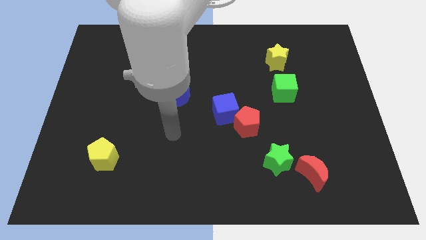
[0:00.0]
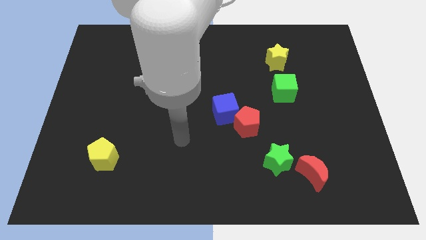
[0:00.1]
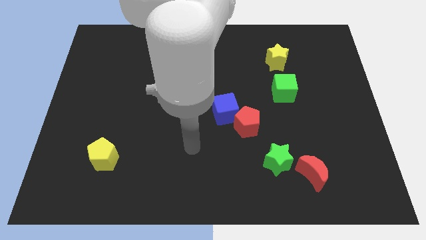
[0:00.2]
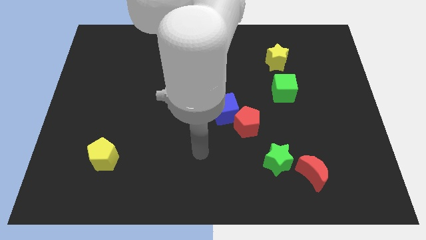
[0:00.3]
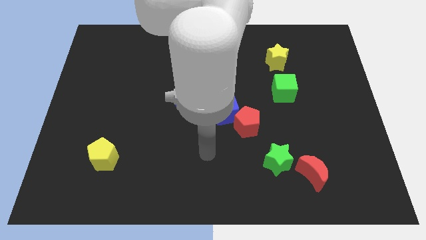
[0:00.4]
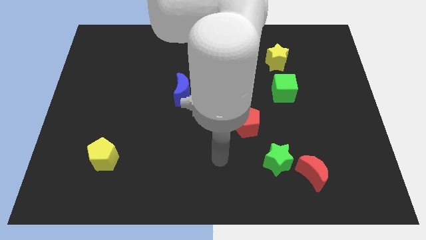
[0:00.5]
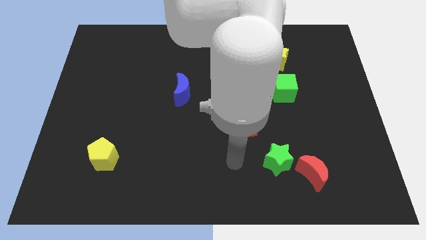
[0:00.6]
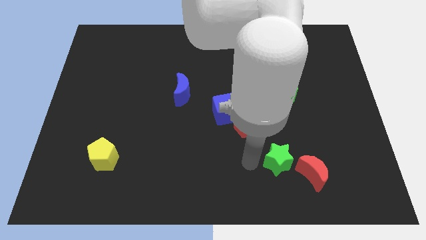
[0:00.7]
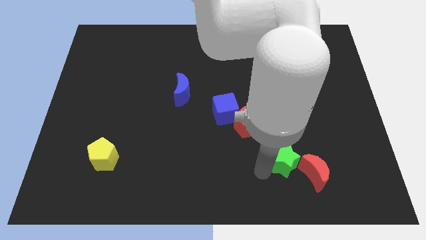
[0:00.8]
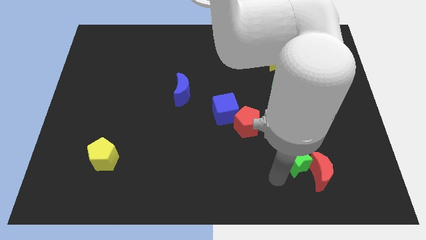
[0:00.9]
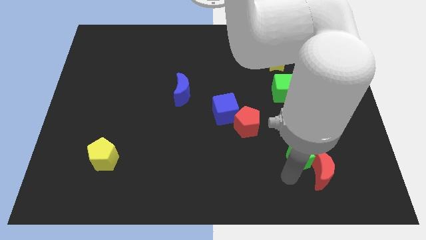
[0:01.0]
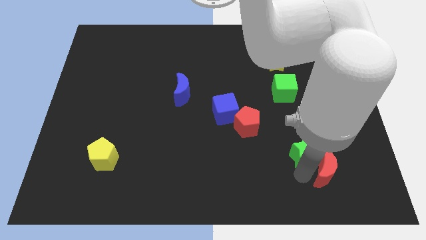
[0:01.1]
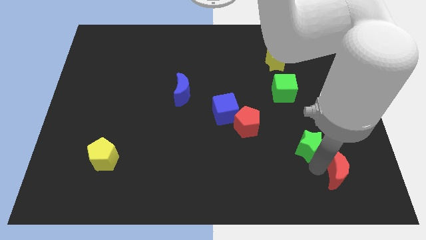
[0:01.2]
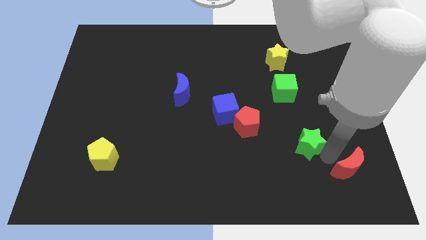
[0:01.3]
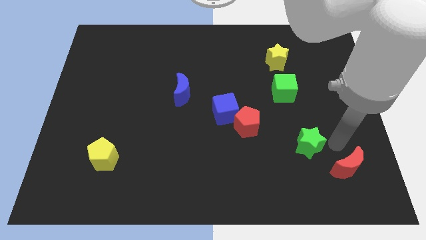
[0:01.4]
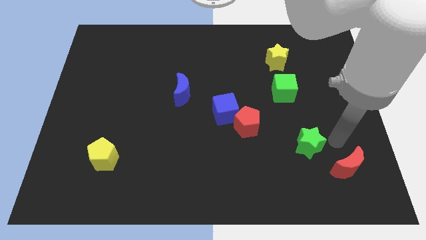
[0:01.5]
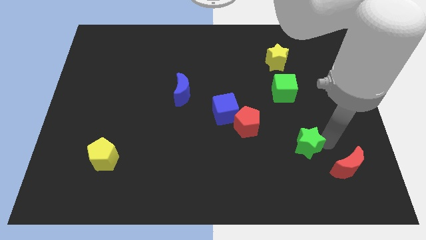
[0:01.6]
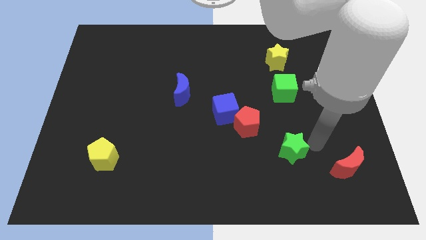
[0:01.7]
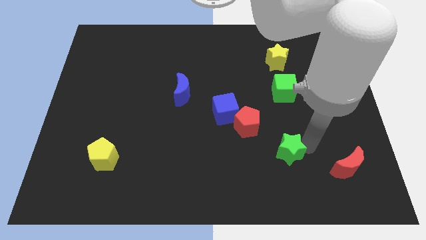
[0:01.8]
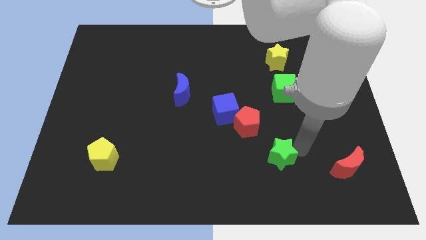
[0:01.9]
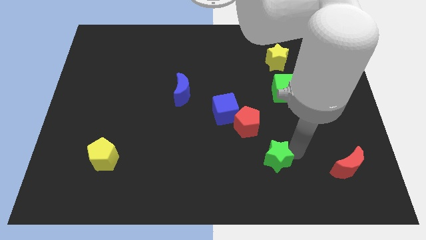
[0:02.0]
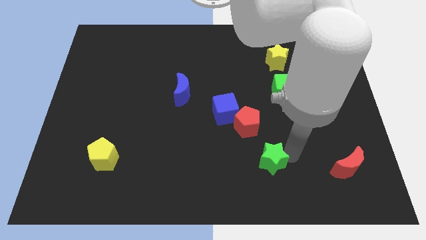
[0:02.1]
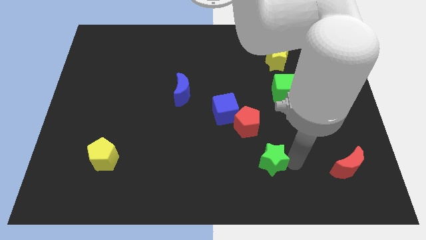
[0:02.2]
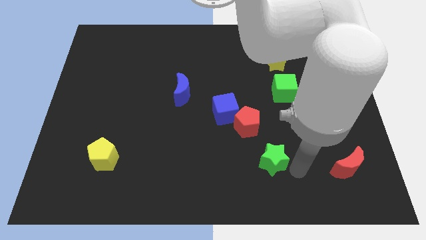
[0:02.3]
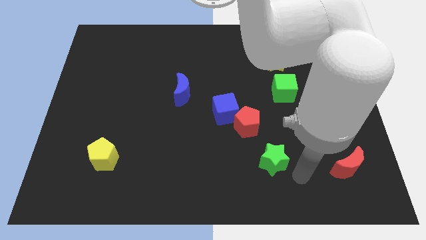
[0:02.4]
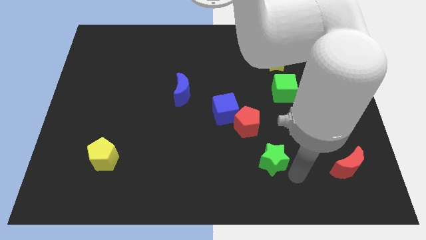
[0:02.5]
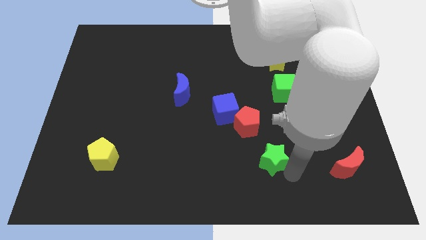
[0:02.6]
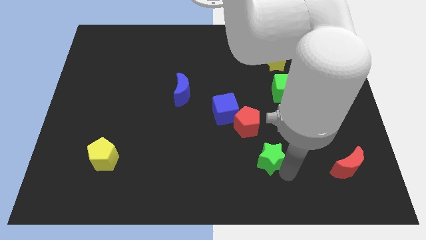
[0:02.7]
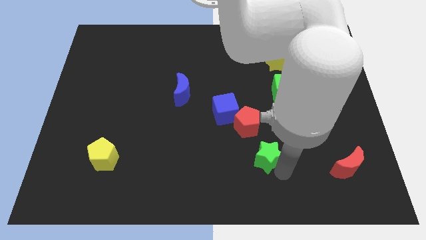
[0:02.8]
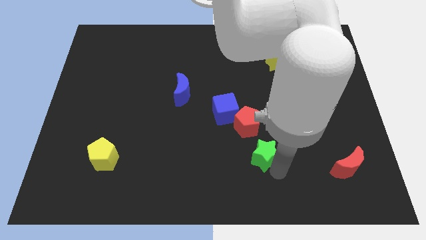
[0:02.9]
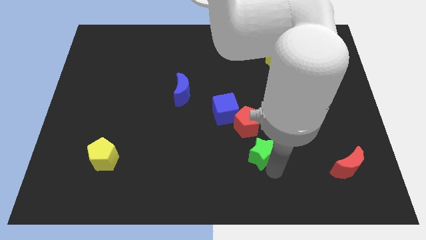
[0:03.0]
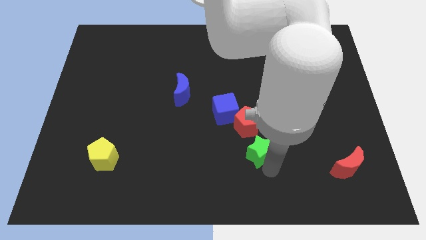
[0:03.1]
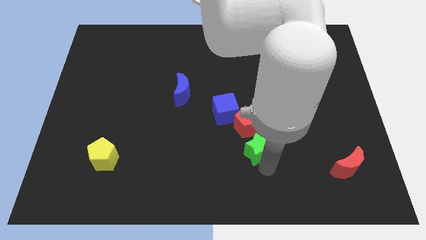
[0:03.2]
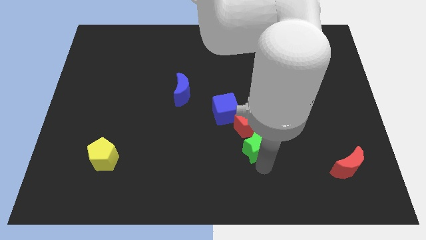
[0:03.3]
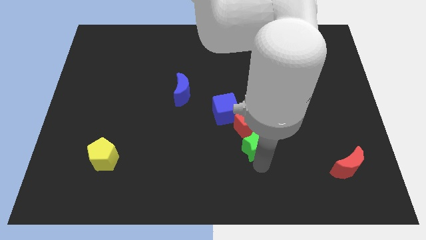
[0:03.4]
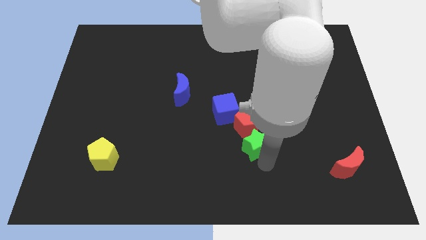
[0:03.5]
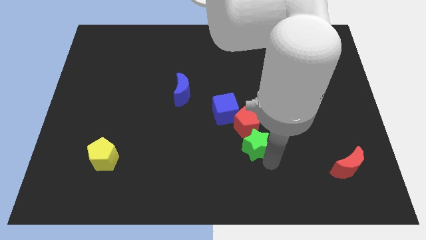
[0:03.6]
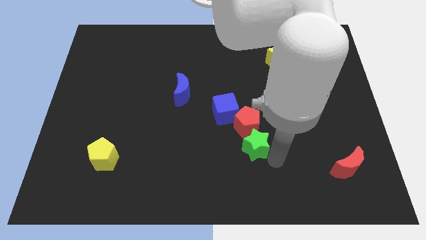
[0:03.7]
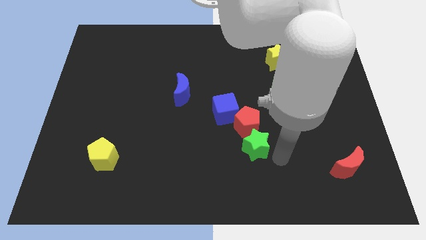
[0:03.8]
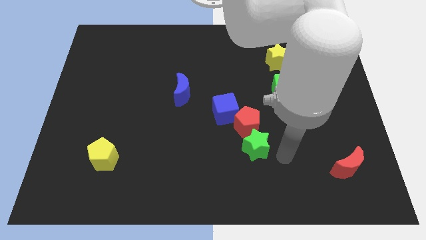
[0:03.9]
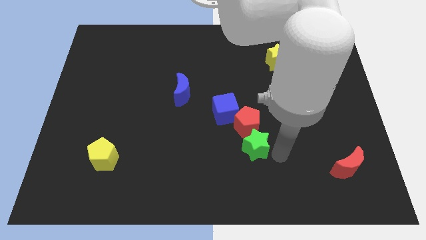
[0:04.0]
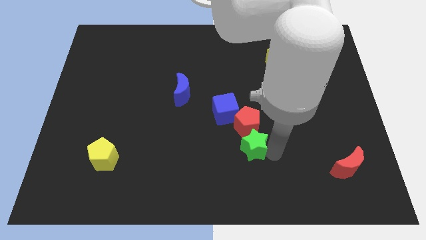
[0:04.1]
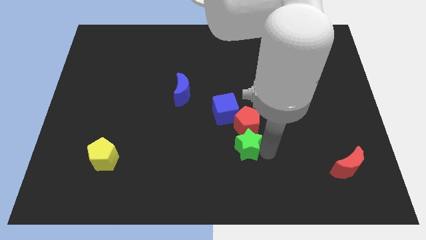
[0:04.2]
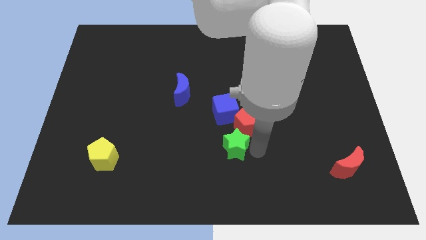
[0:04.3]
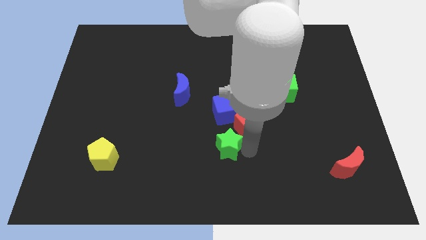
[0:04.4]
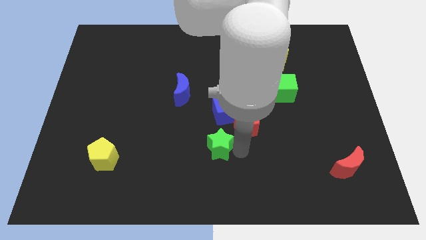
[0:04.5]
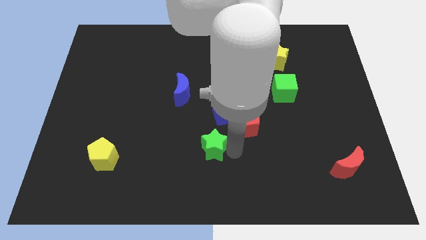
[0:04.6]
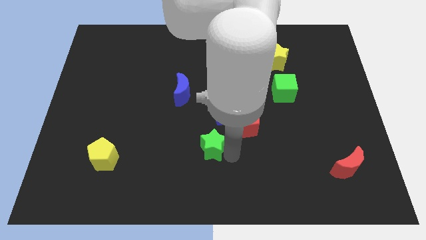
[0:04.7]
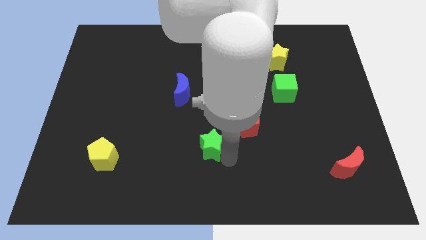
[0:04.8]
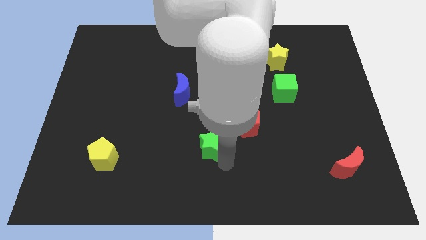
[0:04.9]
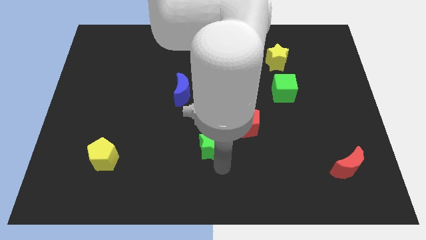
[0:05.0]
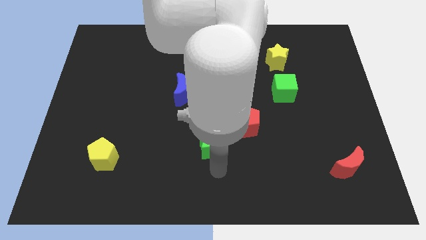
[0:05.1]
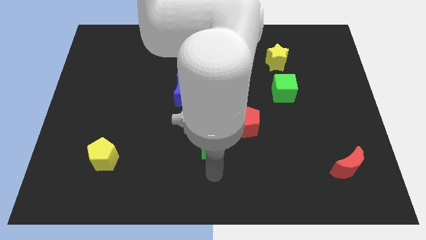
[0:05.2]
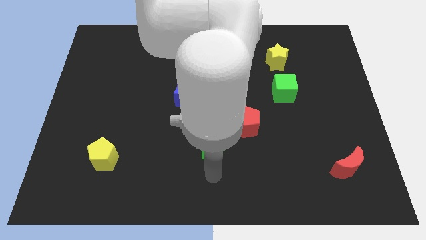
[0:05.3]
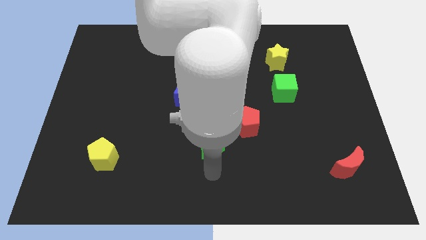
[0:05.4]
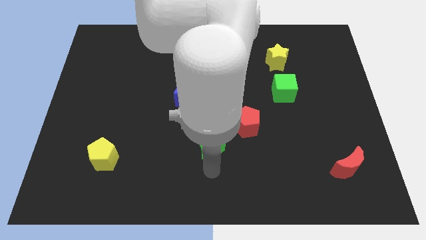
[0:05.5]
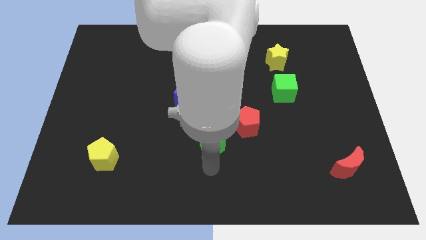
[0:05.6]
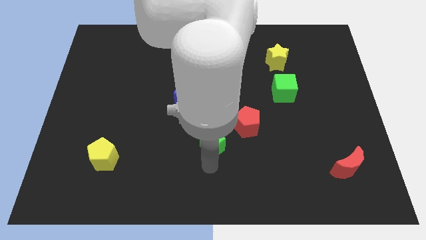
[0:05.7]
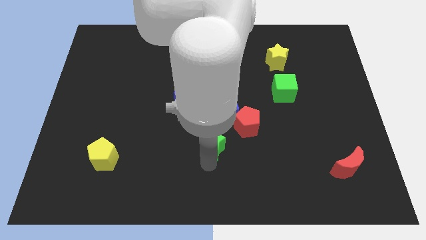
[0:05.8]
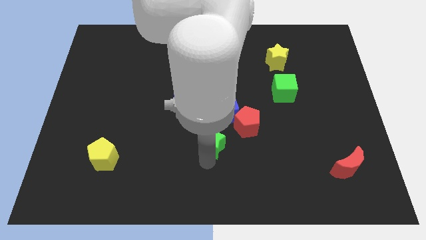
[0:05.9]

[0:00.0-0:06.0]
put the green star to the middle
